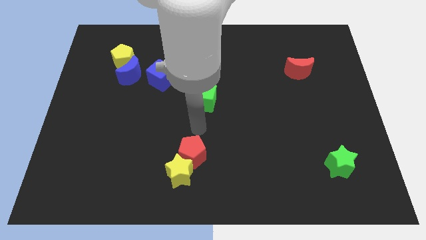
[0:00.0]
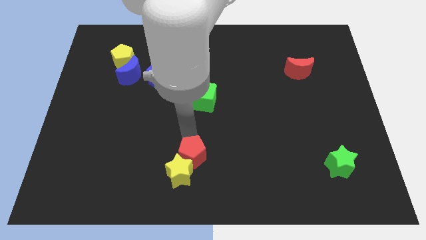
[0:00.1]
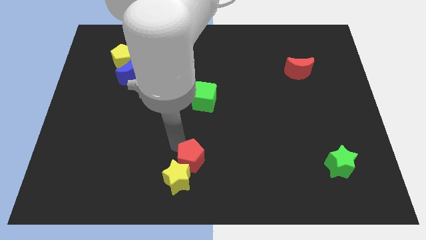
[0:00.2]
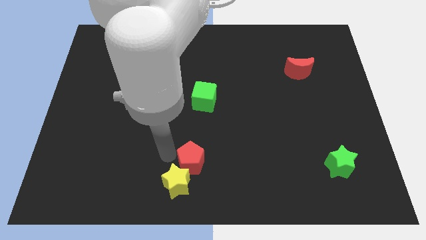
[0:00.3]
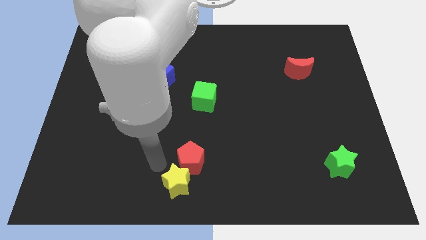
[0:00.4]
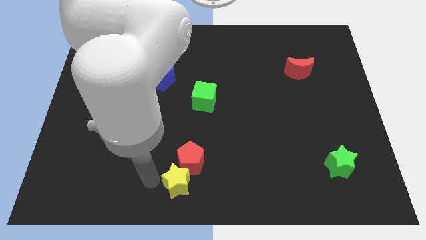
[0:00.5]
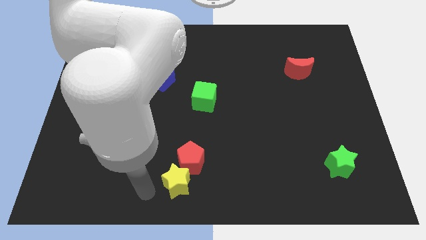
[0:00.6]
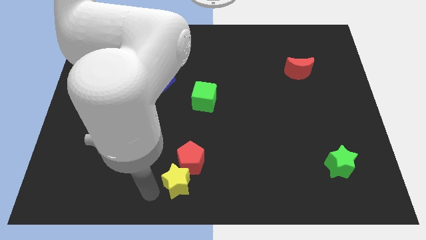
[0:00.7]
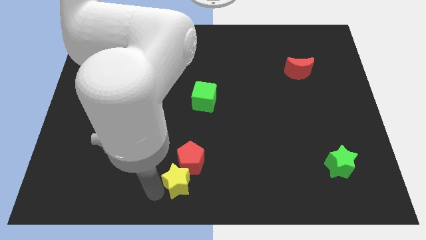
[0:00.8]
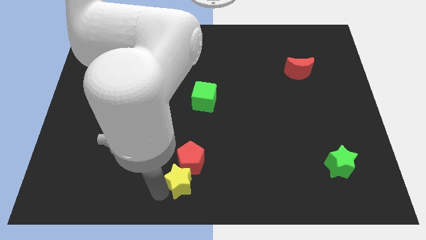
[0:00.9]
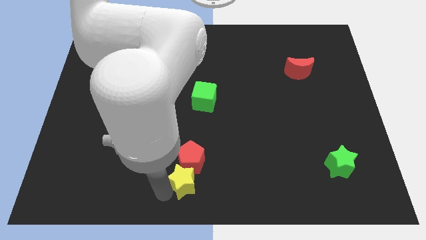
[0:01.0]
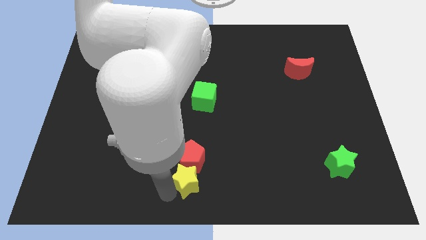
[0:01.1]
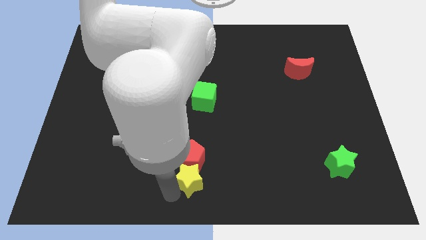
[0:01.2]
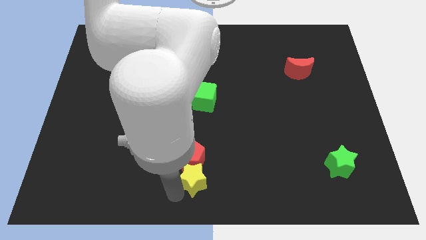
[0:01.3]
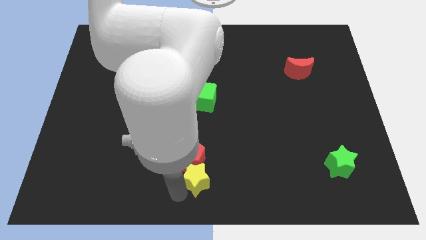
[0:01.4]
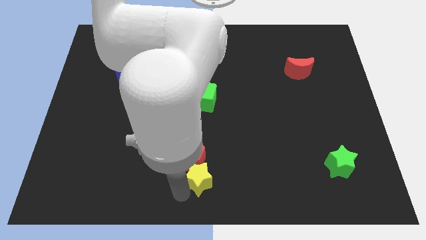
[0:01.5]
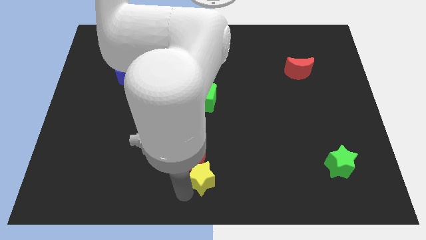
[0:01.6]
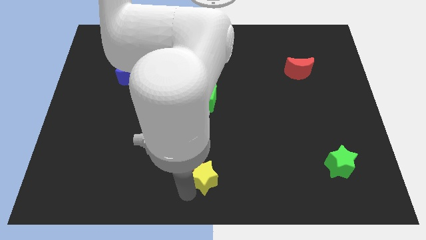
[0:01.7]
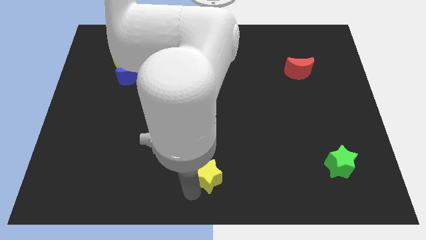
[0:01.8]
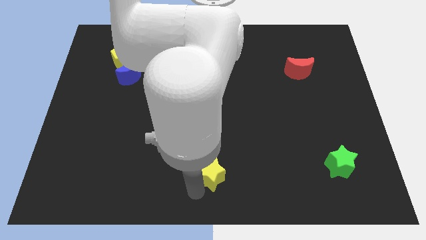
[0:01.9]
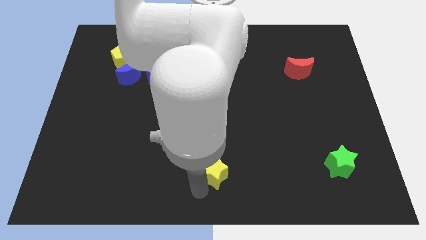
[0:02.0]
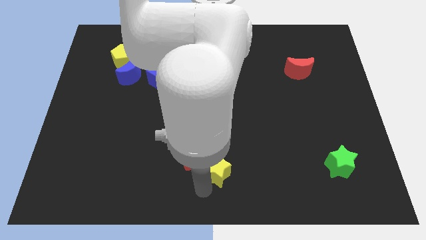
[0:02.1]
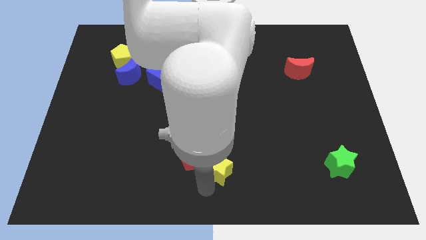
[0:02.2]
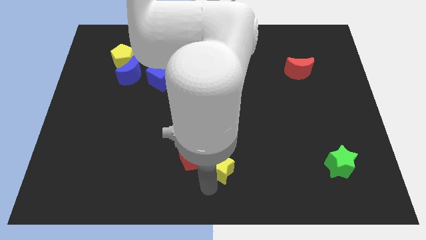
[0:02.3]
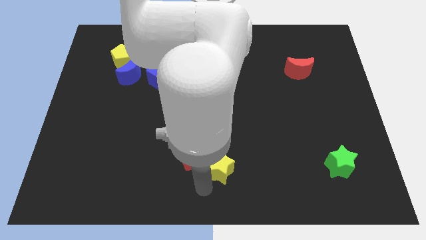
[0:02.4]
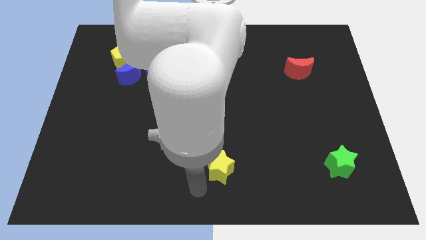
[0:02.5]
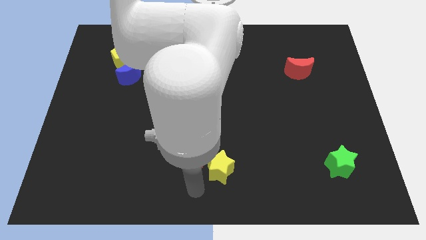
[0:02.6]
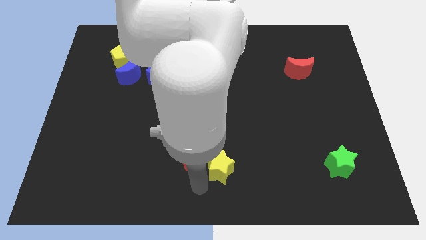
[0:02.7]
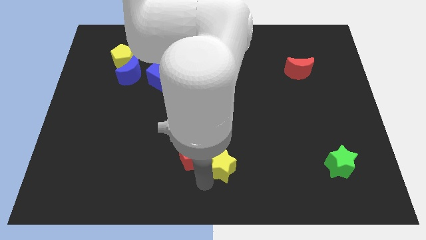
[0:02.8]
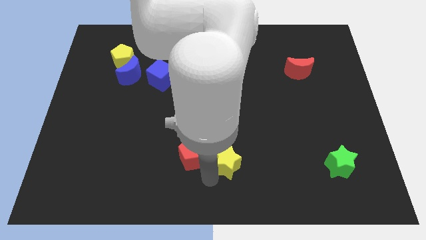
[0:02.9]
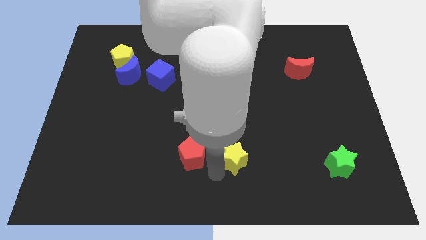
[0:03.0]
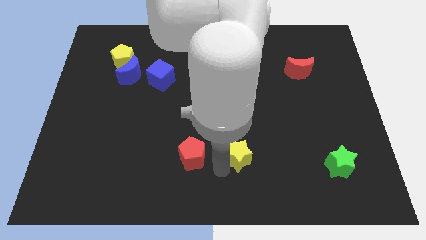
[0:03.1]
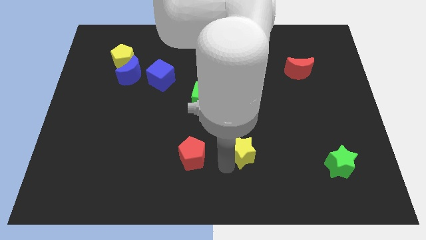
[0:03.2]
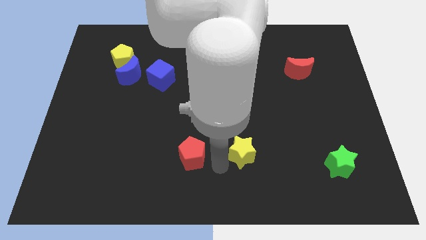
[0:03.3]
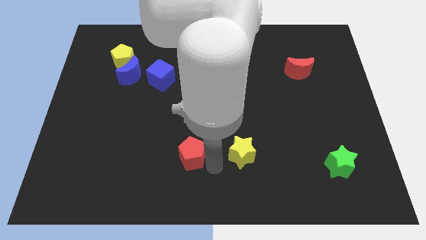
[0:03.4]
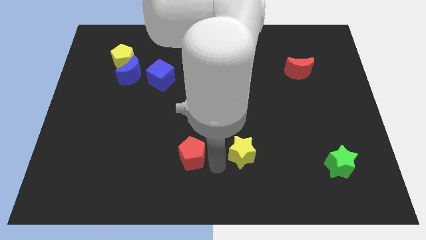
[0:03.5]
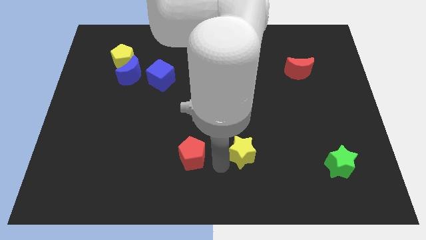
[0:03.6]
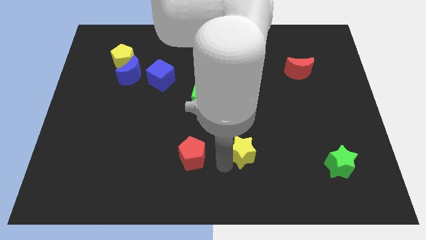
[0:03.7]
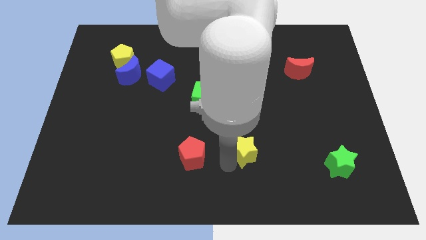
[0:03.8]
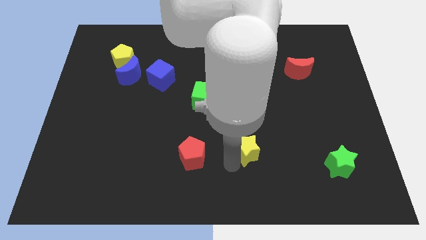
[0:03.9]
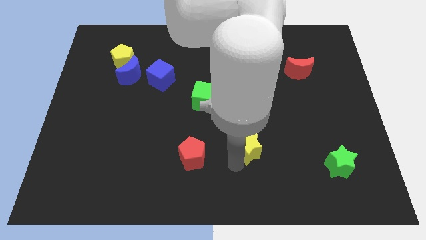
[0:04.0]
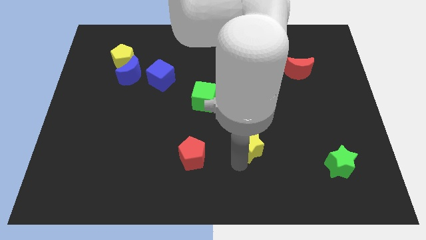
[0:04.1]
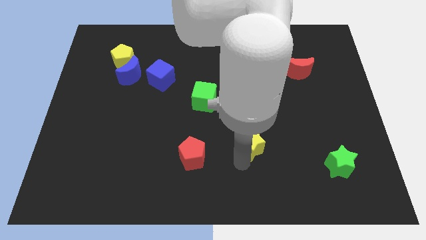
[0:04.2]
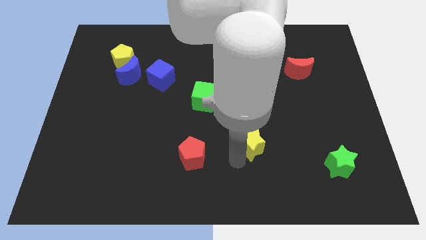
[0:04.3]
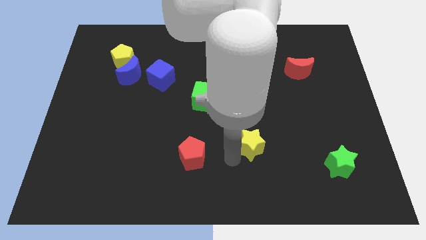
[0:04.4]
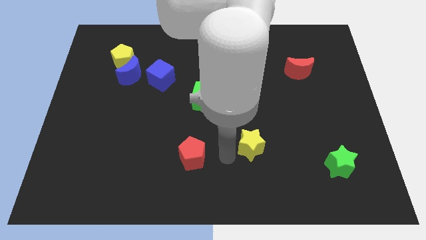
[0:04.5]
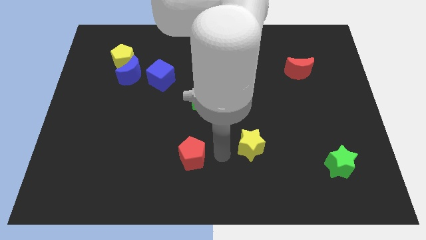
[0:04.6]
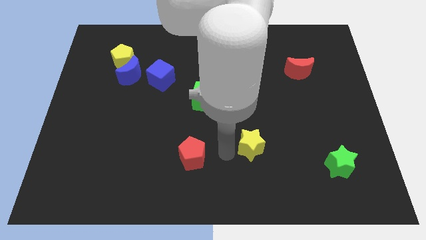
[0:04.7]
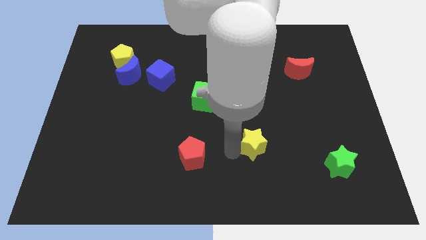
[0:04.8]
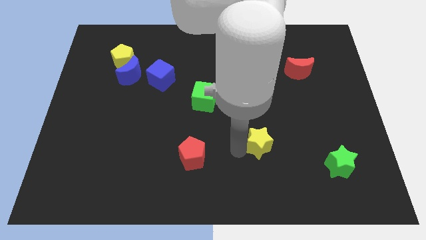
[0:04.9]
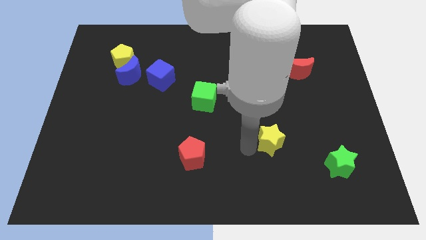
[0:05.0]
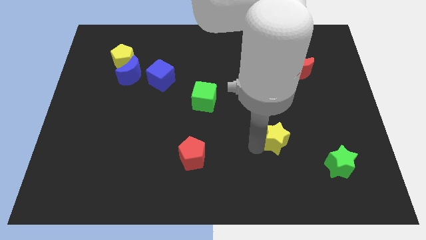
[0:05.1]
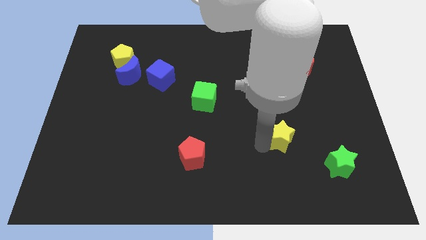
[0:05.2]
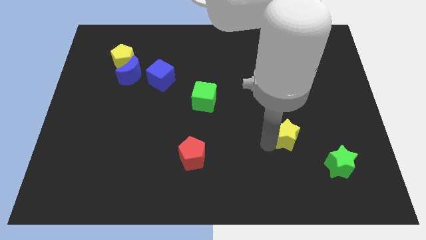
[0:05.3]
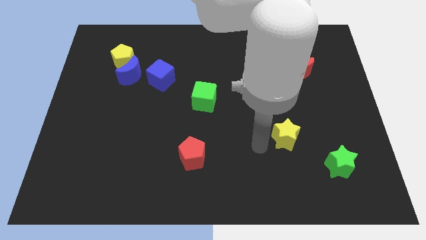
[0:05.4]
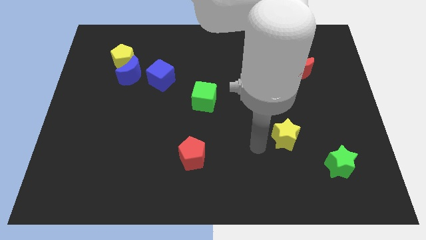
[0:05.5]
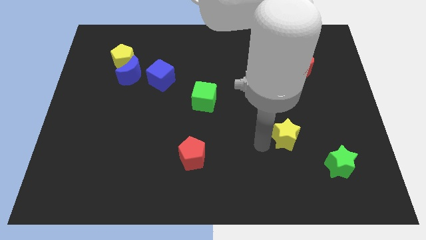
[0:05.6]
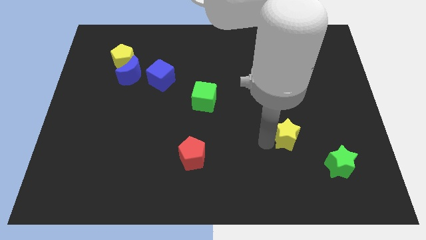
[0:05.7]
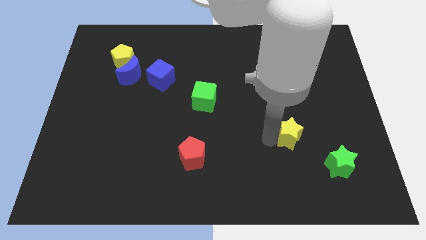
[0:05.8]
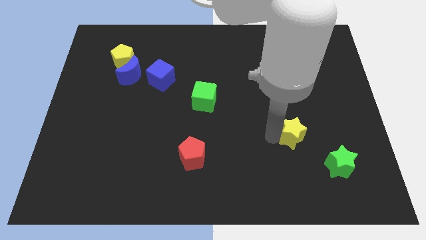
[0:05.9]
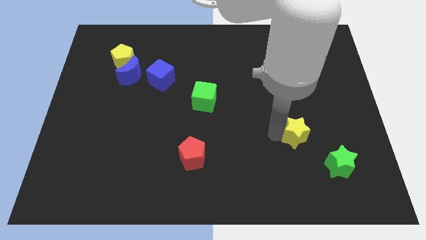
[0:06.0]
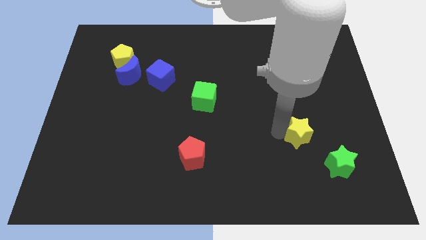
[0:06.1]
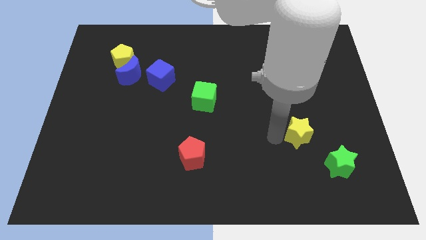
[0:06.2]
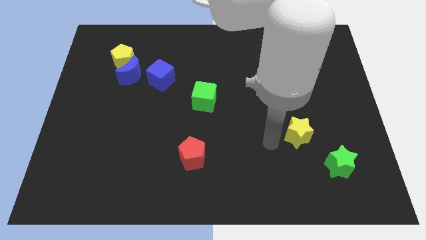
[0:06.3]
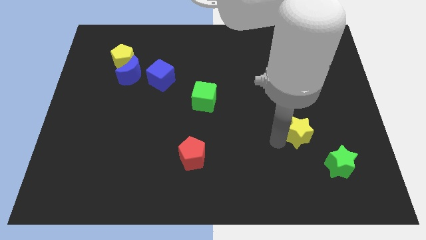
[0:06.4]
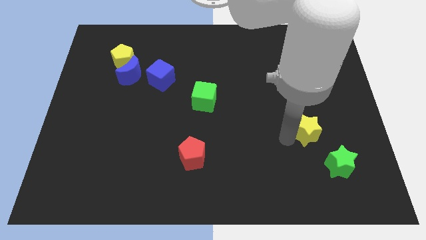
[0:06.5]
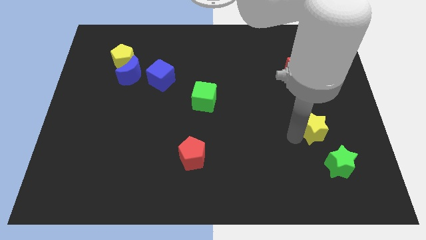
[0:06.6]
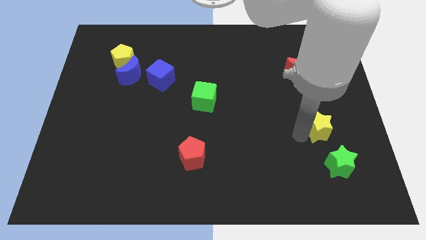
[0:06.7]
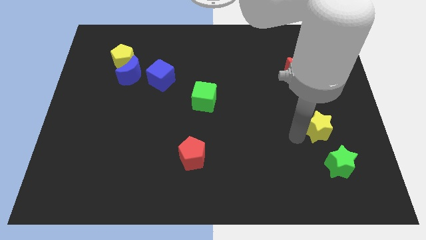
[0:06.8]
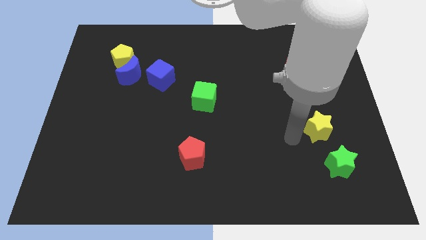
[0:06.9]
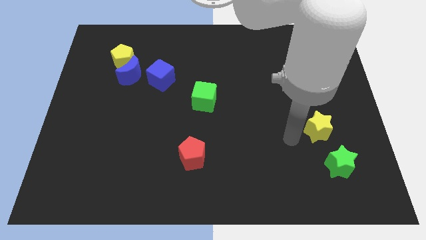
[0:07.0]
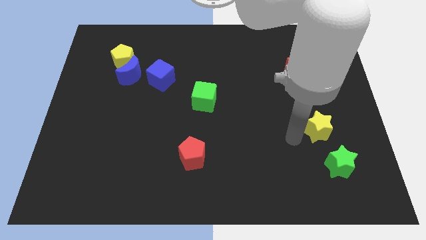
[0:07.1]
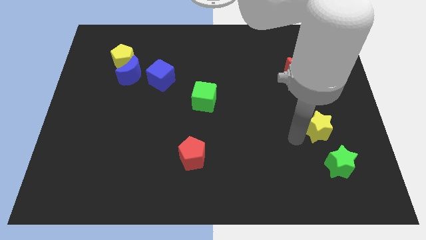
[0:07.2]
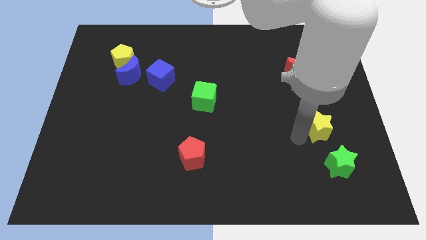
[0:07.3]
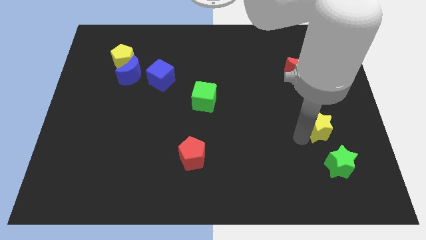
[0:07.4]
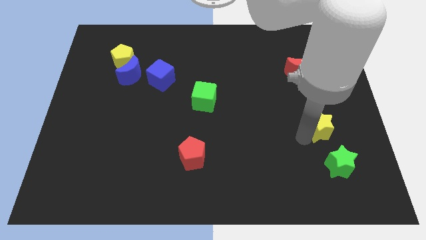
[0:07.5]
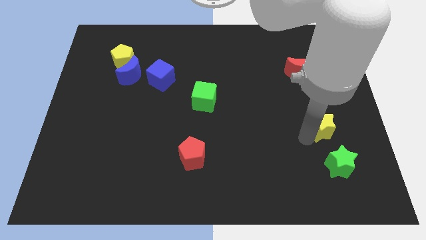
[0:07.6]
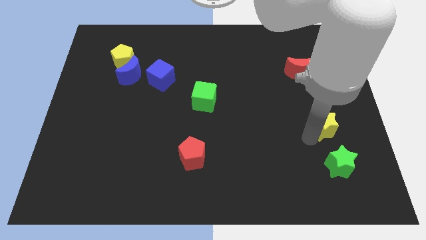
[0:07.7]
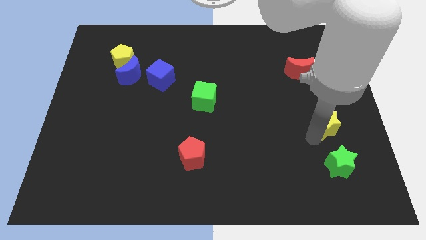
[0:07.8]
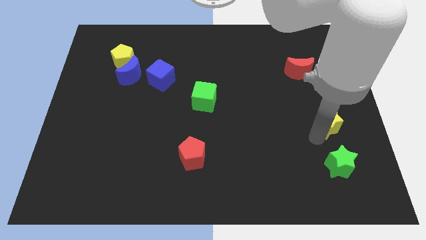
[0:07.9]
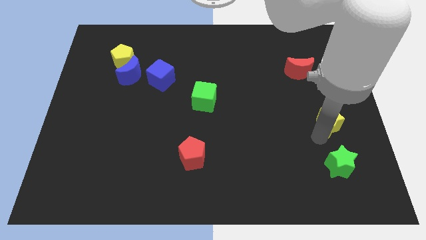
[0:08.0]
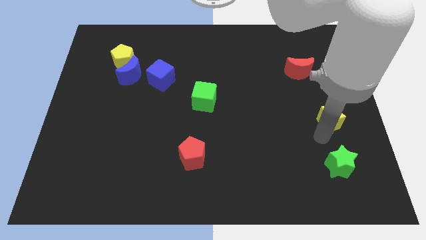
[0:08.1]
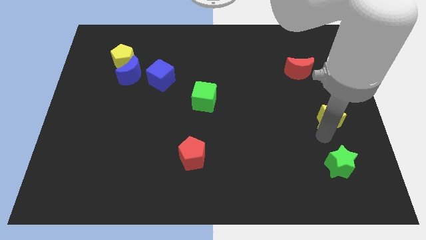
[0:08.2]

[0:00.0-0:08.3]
slide the yellow star to the right side
